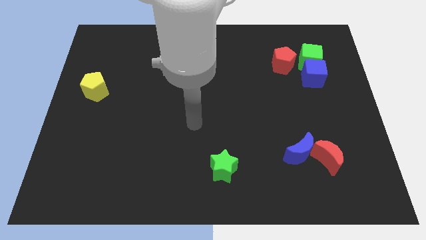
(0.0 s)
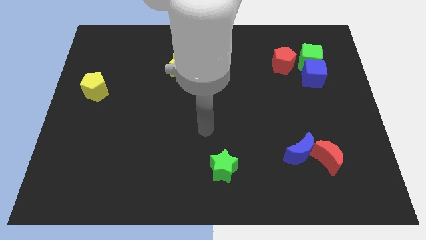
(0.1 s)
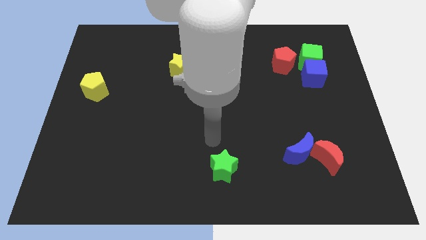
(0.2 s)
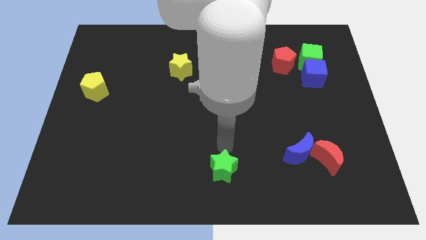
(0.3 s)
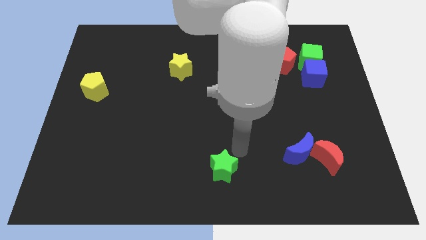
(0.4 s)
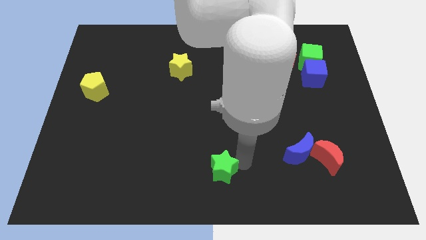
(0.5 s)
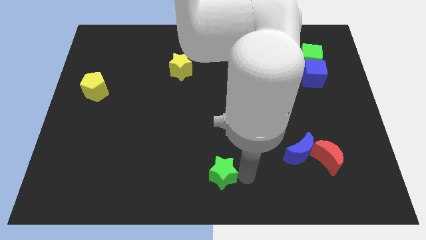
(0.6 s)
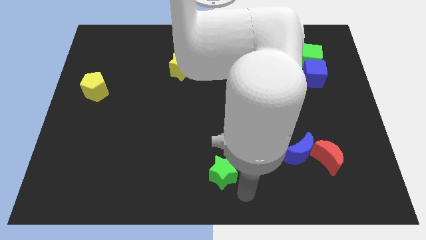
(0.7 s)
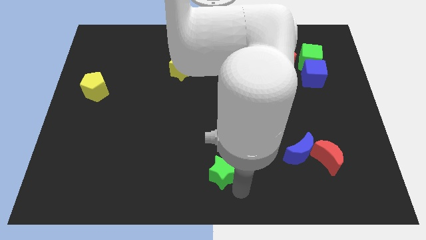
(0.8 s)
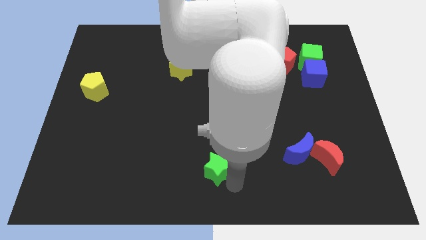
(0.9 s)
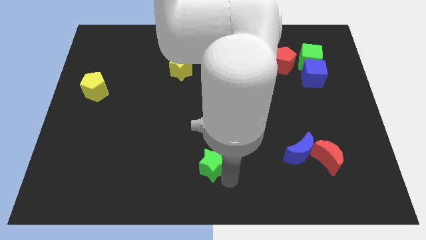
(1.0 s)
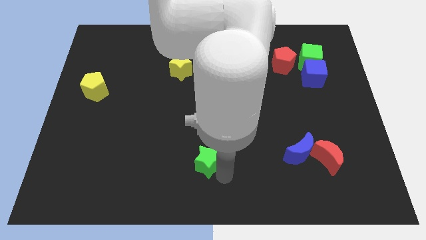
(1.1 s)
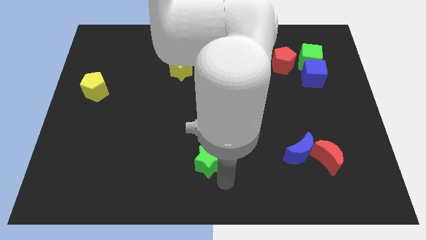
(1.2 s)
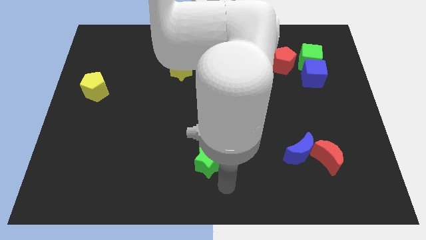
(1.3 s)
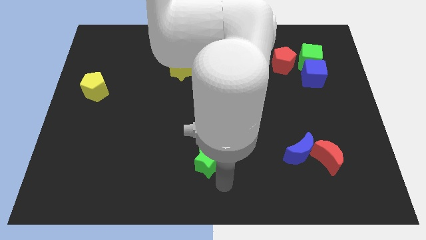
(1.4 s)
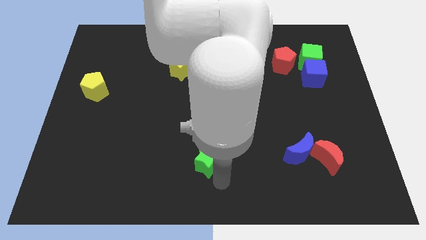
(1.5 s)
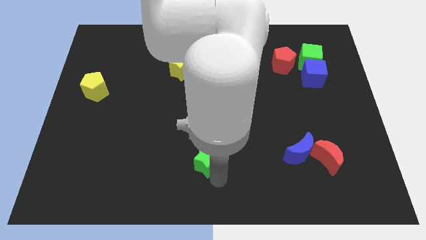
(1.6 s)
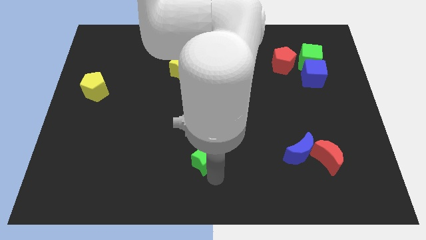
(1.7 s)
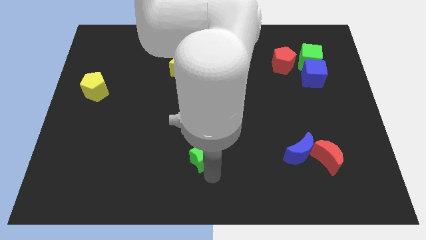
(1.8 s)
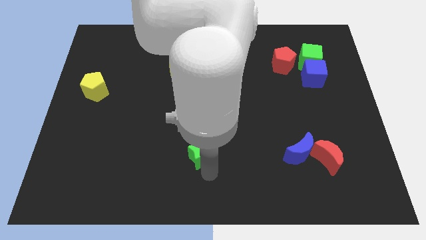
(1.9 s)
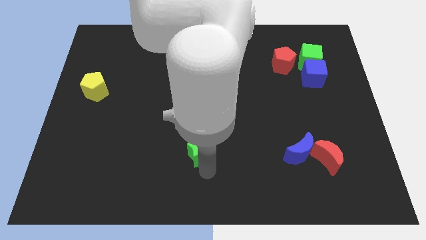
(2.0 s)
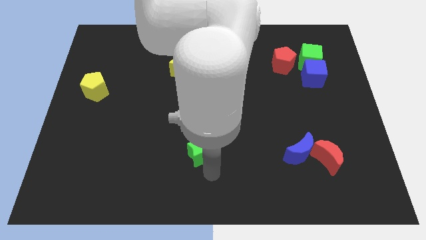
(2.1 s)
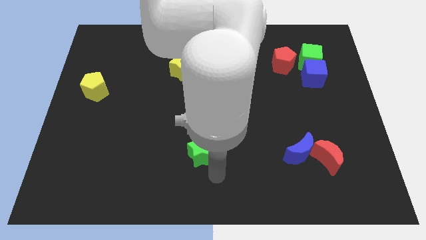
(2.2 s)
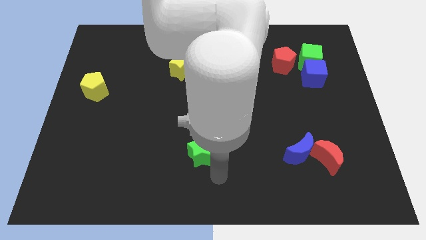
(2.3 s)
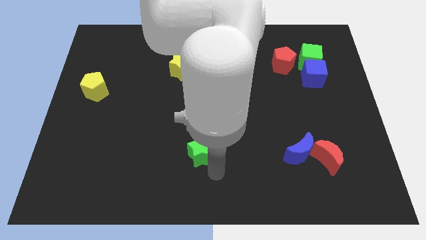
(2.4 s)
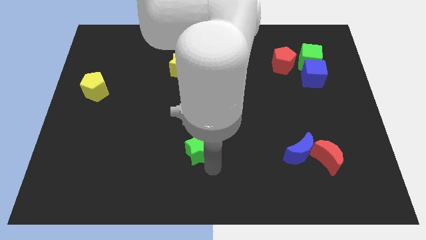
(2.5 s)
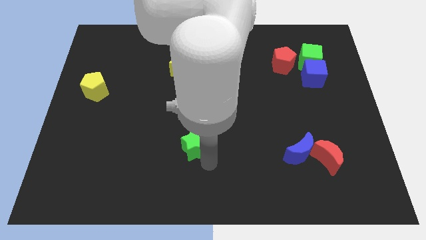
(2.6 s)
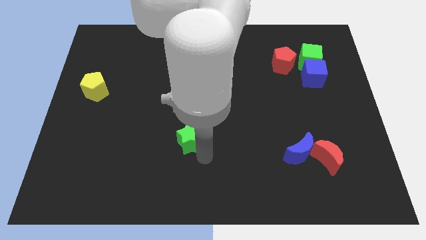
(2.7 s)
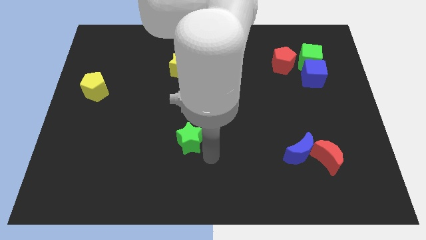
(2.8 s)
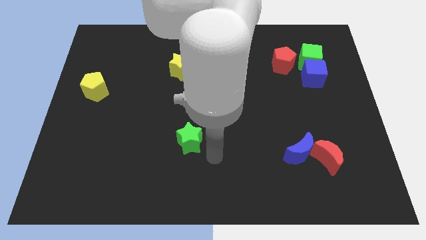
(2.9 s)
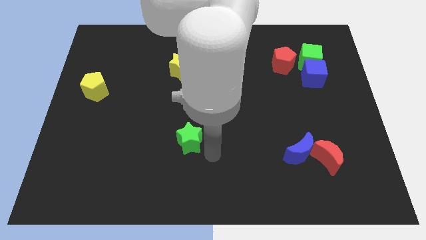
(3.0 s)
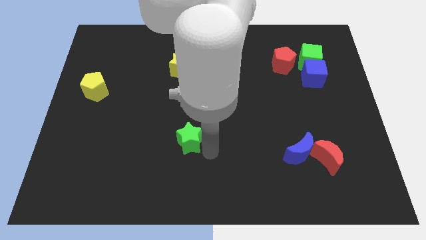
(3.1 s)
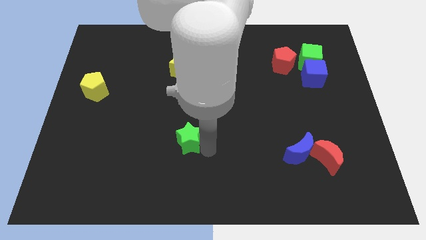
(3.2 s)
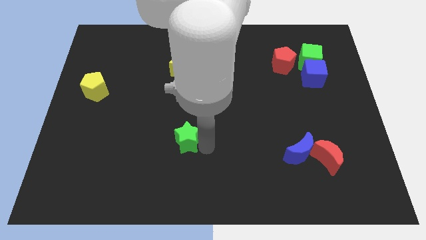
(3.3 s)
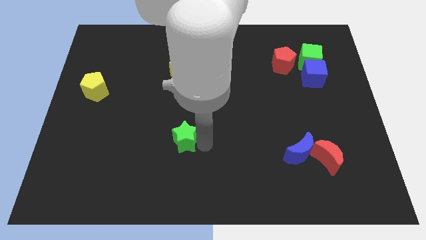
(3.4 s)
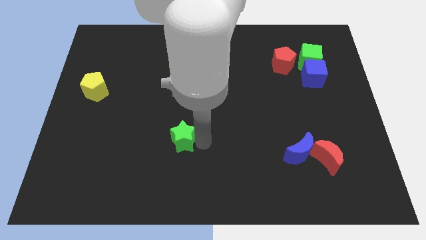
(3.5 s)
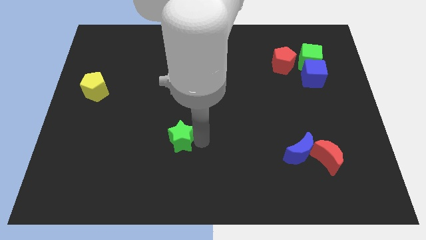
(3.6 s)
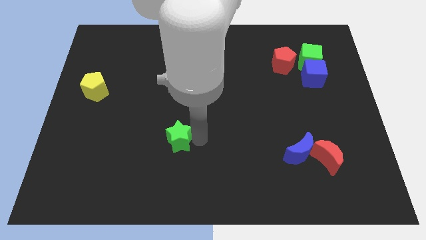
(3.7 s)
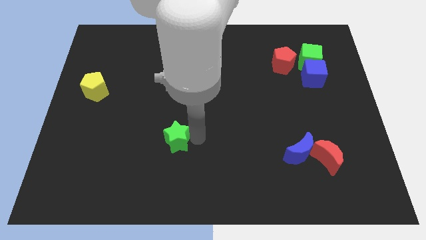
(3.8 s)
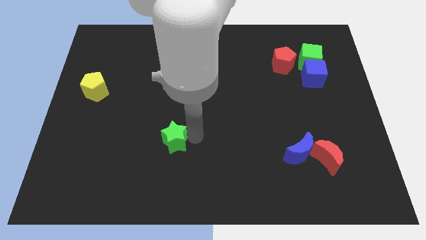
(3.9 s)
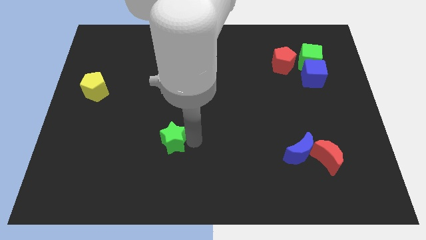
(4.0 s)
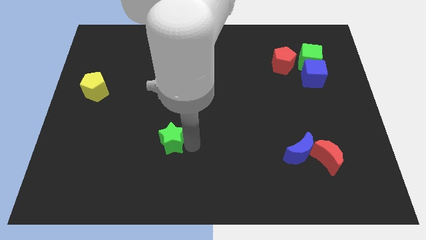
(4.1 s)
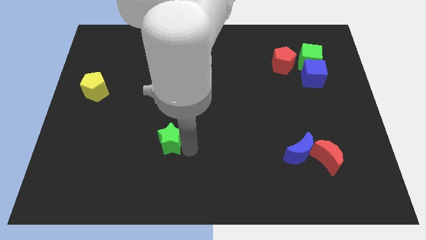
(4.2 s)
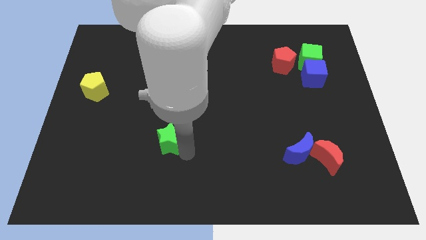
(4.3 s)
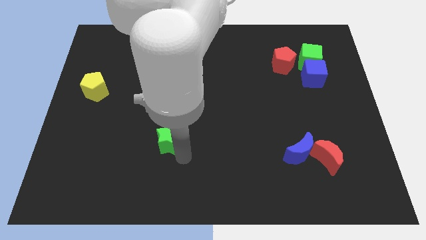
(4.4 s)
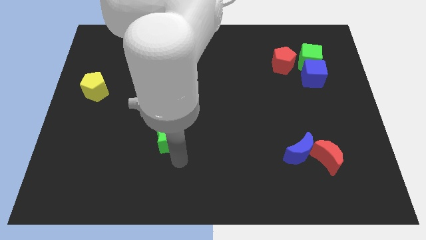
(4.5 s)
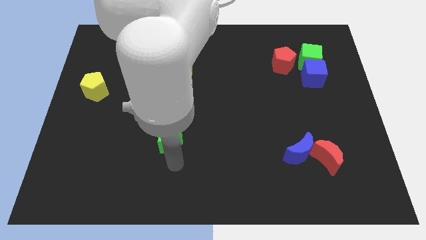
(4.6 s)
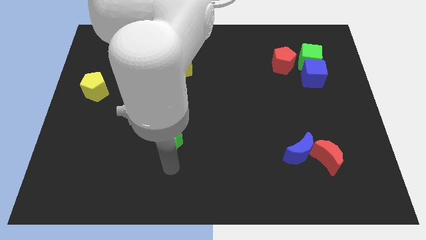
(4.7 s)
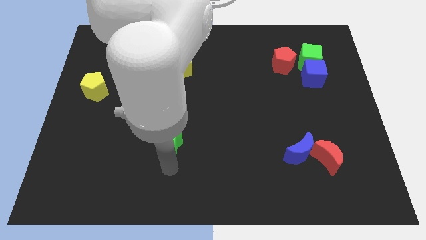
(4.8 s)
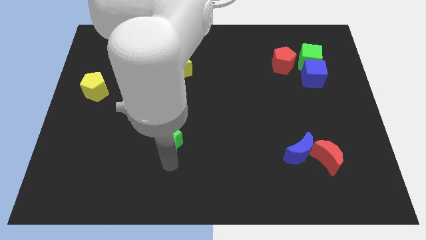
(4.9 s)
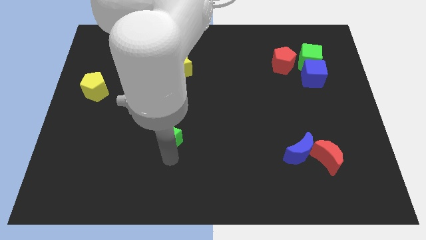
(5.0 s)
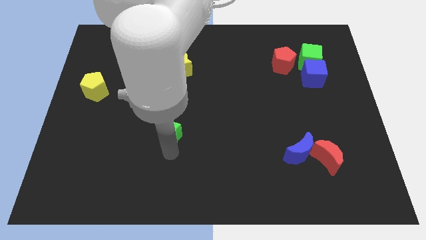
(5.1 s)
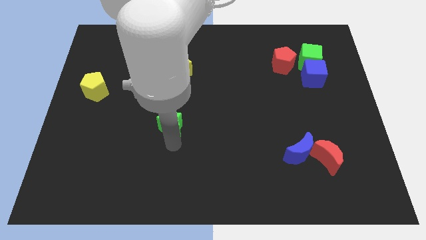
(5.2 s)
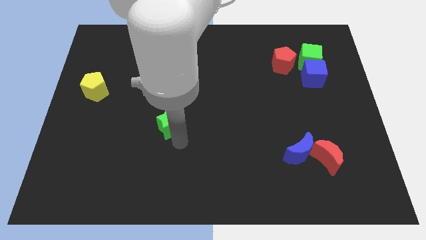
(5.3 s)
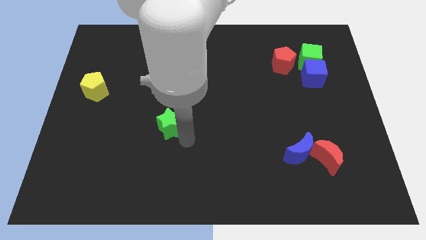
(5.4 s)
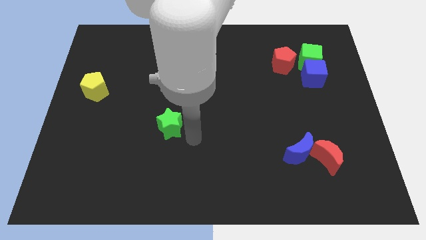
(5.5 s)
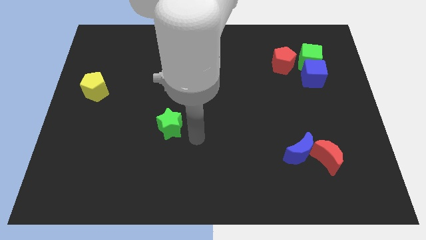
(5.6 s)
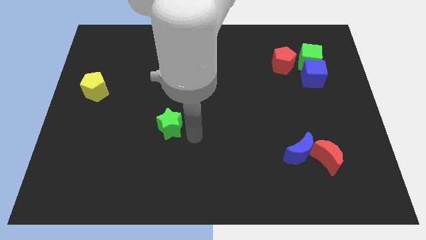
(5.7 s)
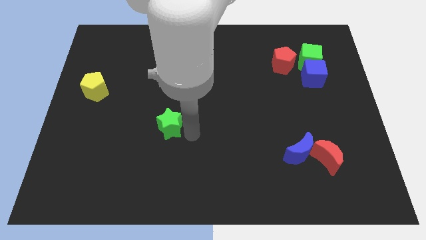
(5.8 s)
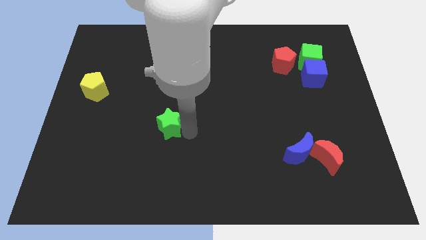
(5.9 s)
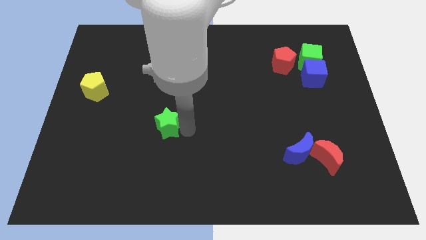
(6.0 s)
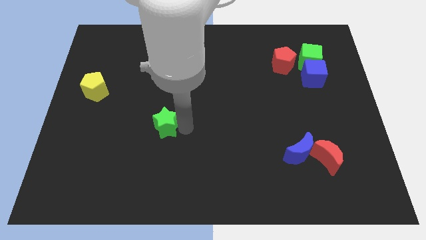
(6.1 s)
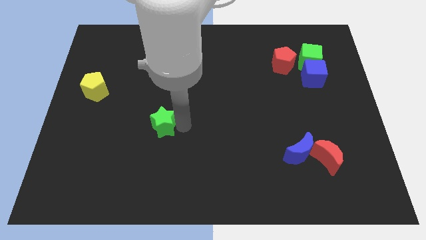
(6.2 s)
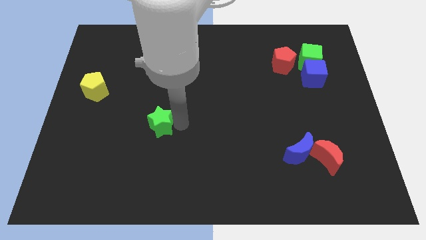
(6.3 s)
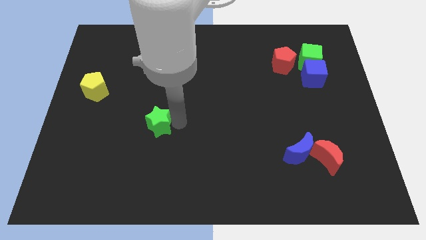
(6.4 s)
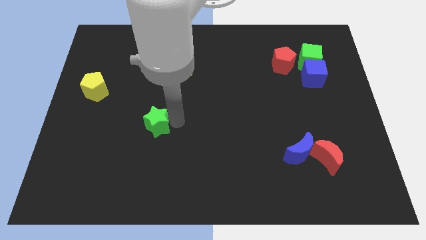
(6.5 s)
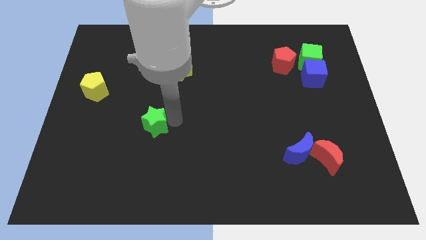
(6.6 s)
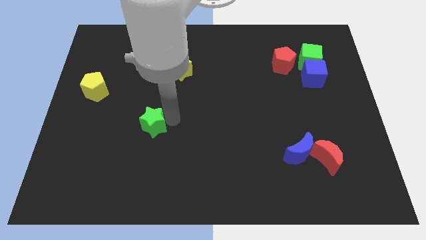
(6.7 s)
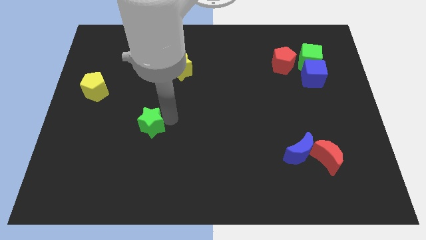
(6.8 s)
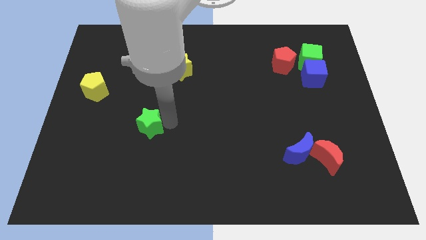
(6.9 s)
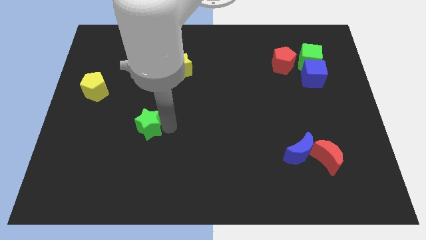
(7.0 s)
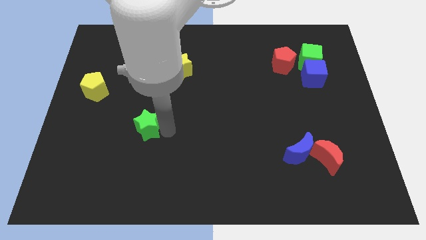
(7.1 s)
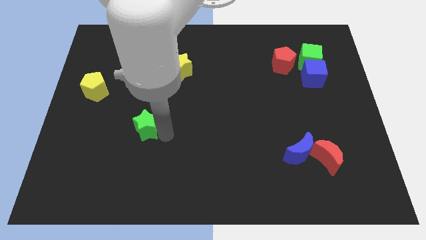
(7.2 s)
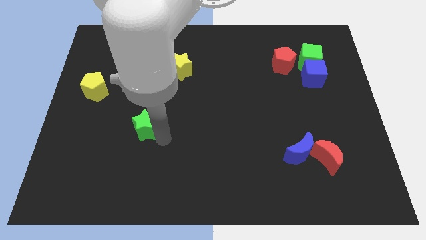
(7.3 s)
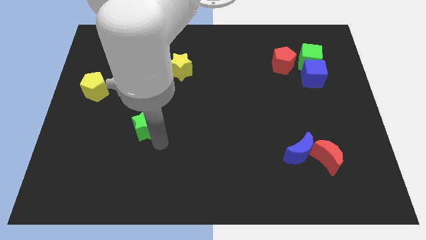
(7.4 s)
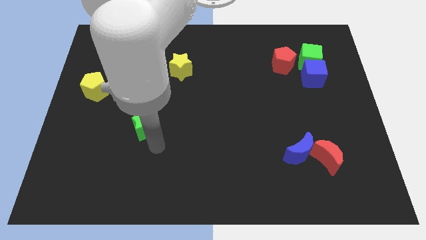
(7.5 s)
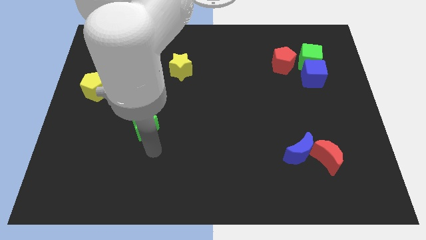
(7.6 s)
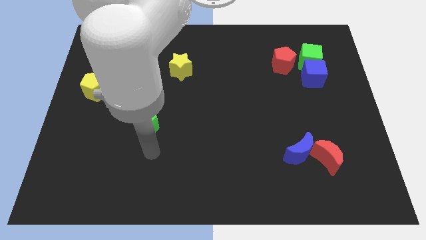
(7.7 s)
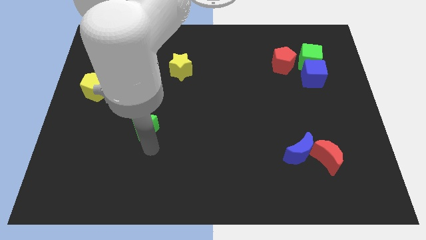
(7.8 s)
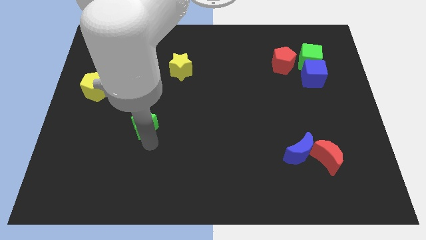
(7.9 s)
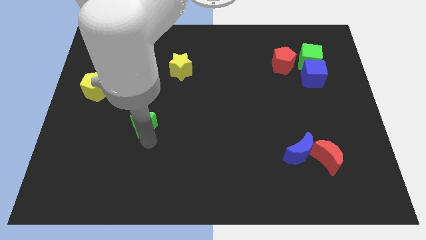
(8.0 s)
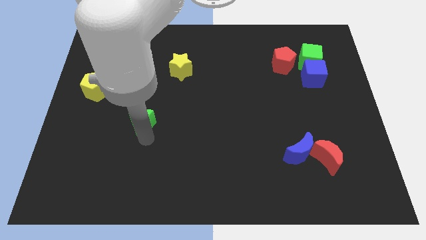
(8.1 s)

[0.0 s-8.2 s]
push the green star up and left diagonally
